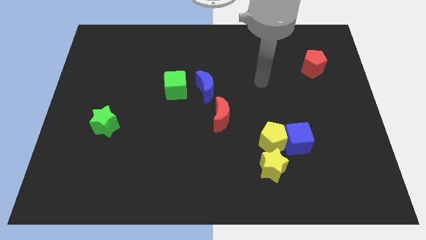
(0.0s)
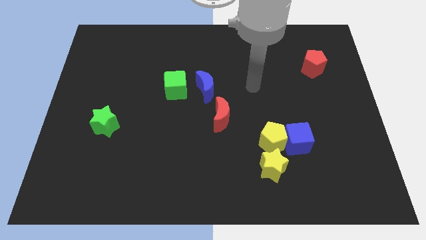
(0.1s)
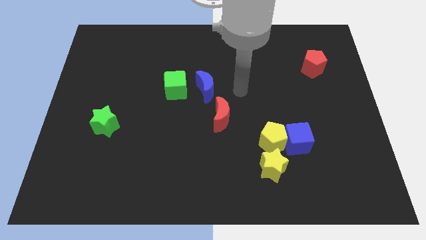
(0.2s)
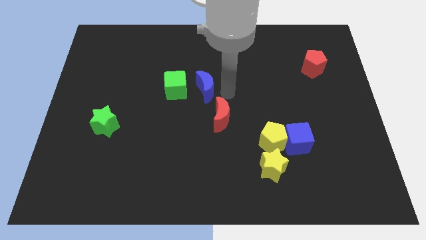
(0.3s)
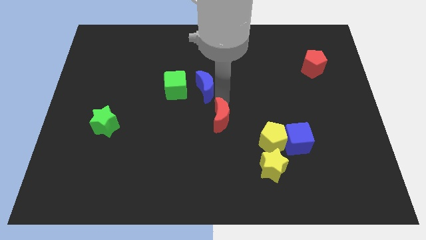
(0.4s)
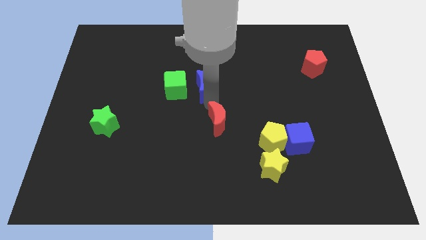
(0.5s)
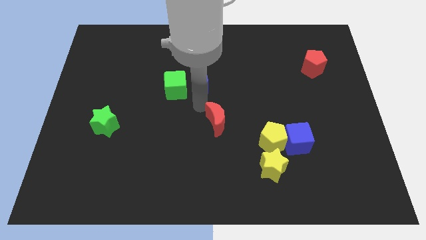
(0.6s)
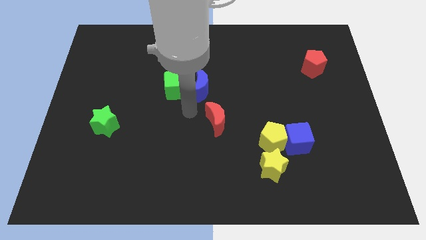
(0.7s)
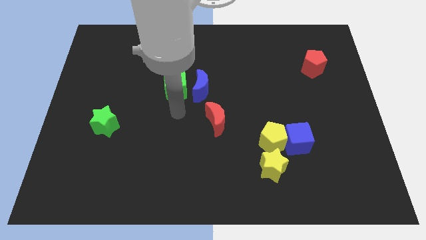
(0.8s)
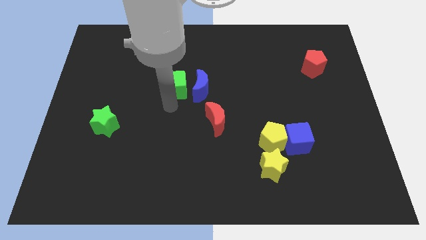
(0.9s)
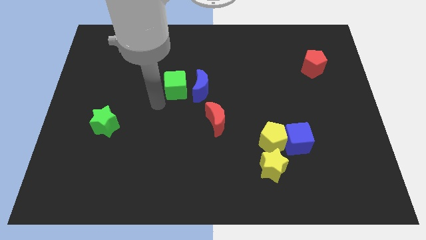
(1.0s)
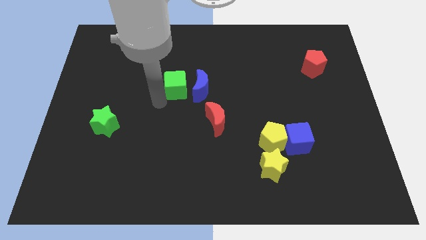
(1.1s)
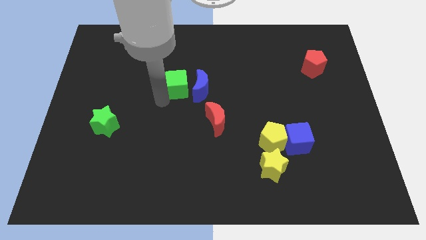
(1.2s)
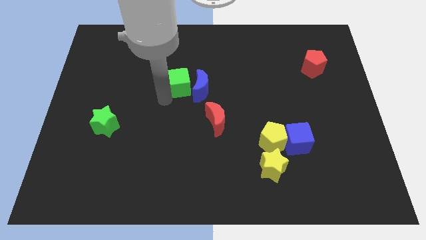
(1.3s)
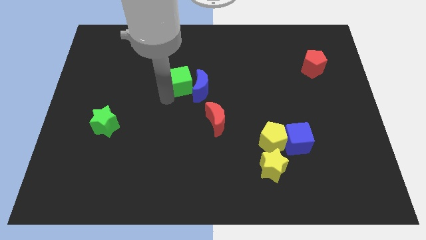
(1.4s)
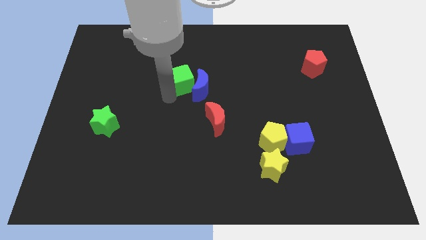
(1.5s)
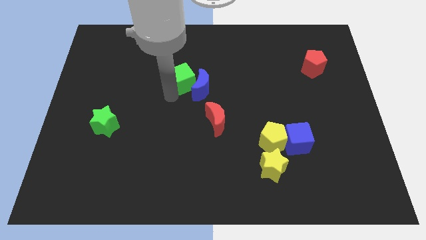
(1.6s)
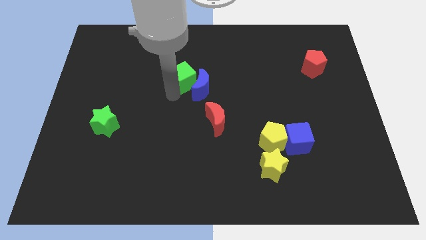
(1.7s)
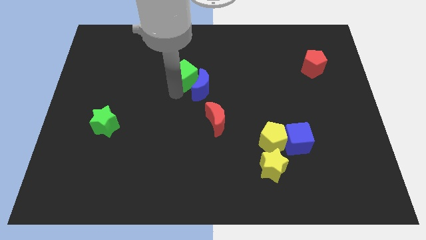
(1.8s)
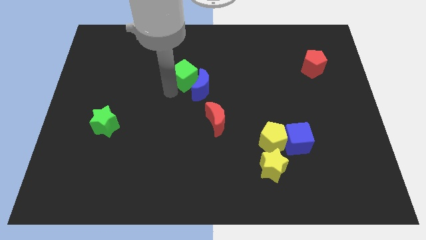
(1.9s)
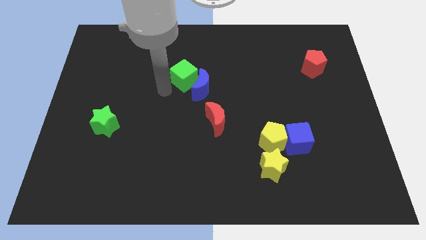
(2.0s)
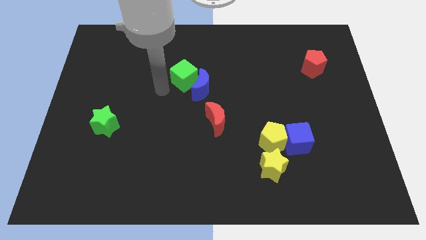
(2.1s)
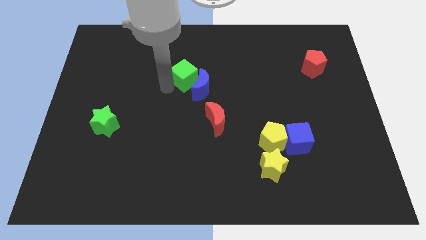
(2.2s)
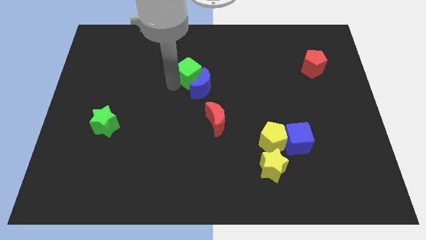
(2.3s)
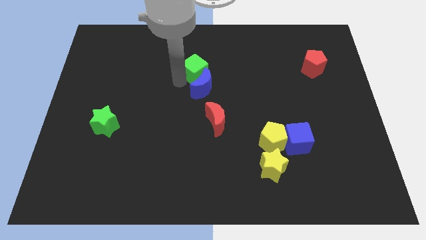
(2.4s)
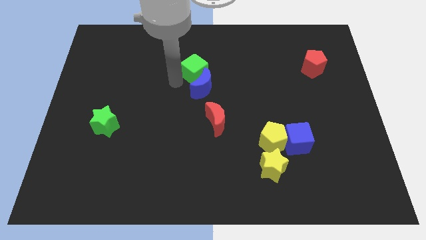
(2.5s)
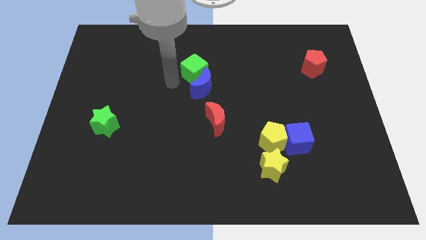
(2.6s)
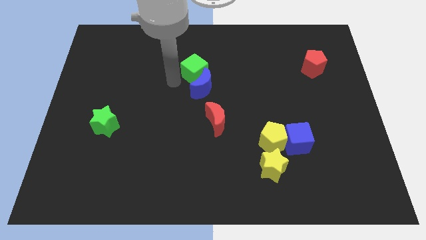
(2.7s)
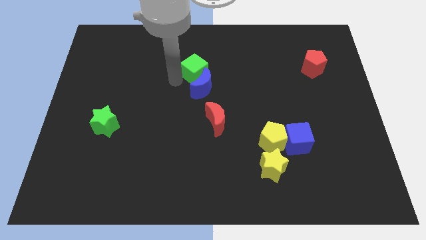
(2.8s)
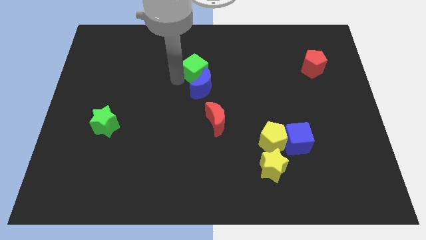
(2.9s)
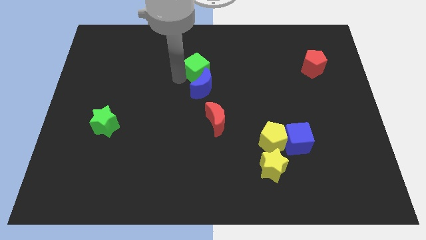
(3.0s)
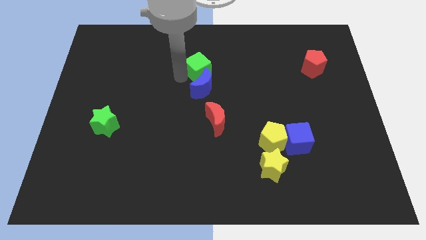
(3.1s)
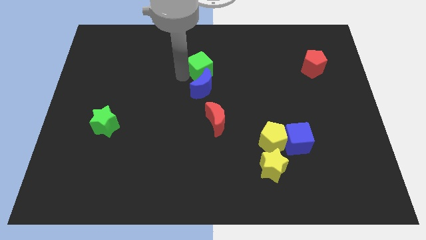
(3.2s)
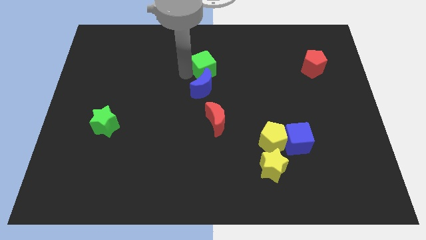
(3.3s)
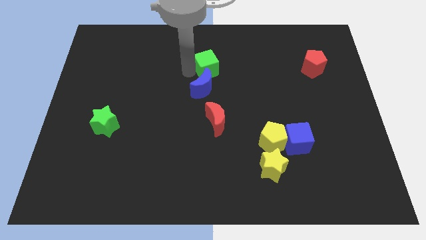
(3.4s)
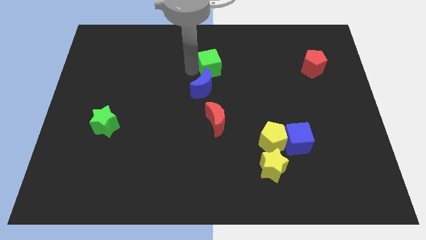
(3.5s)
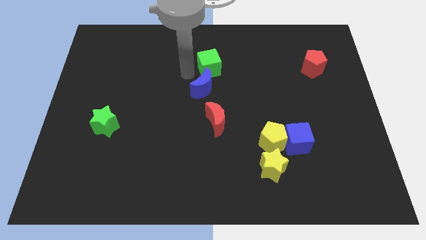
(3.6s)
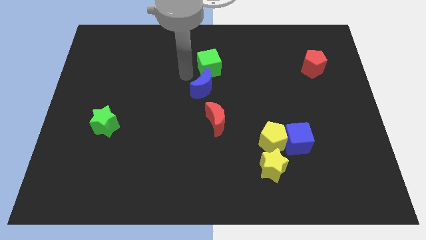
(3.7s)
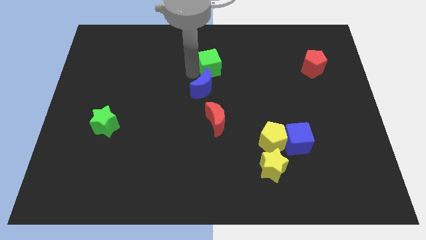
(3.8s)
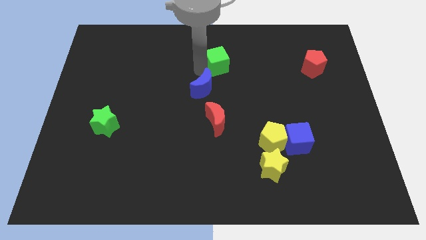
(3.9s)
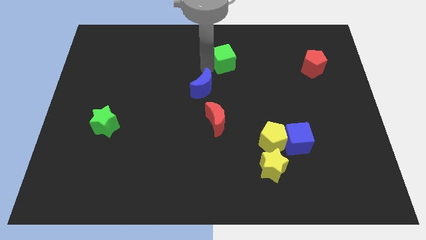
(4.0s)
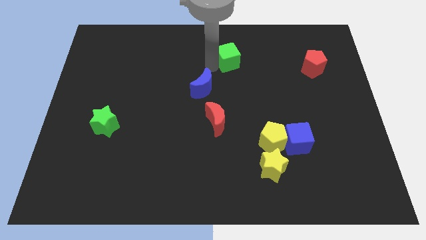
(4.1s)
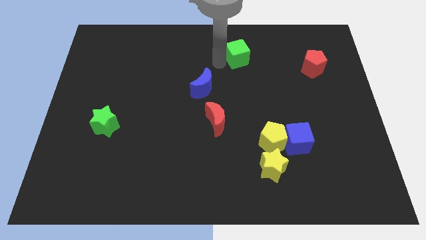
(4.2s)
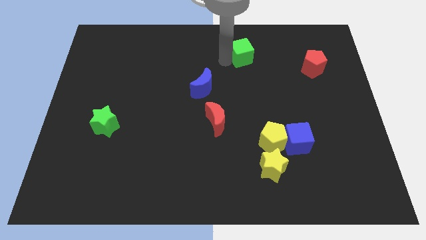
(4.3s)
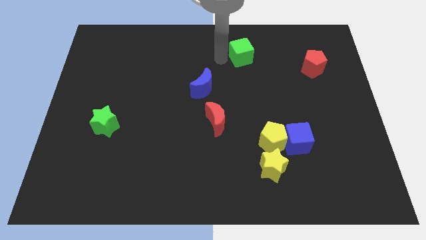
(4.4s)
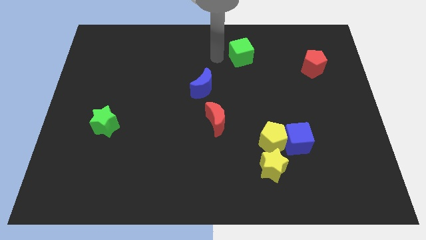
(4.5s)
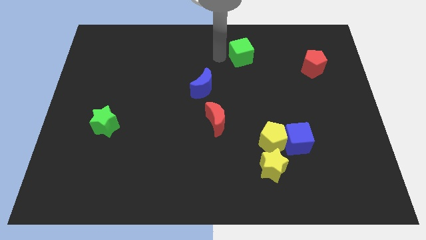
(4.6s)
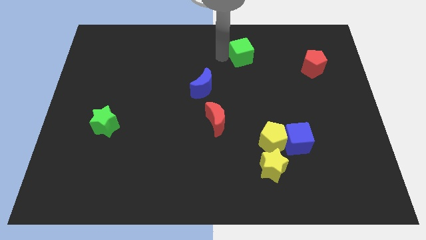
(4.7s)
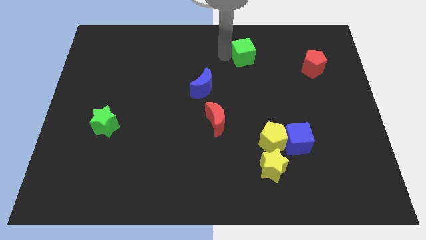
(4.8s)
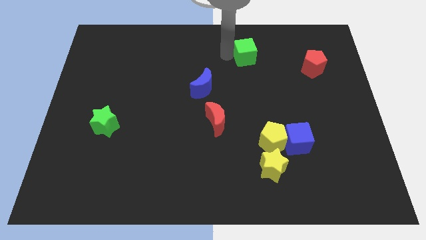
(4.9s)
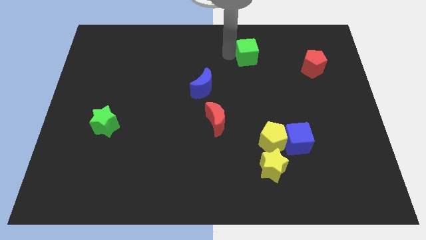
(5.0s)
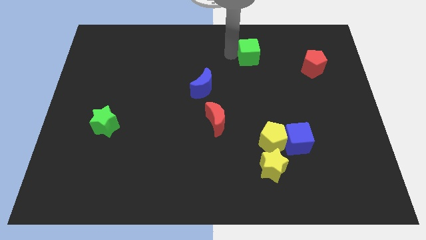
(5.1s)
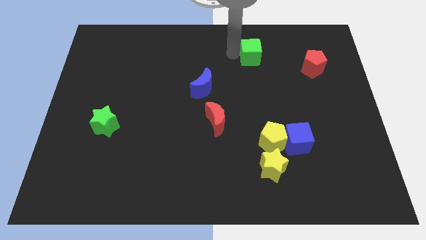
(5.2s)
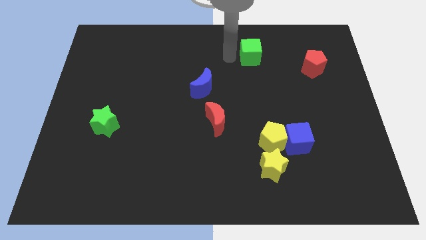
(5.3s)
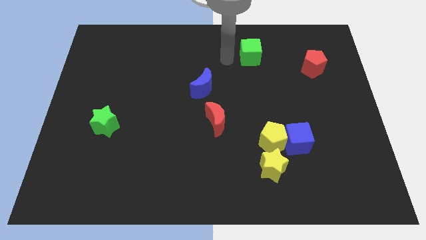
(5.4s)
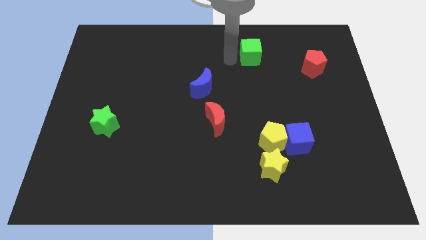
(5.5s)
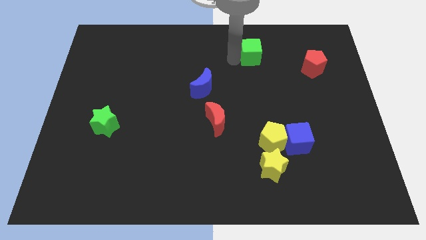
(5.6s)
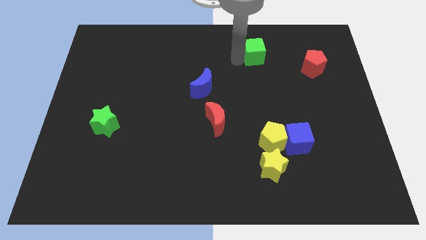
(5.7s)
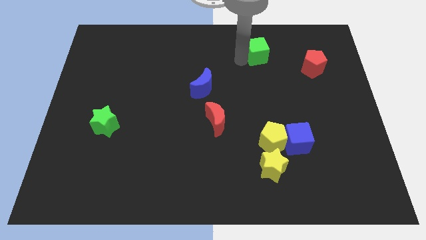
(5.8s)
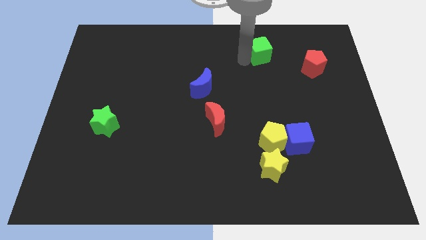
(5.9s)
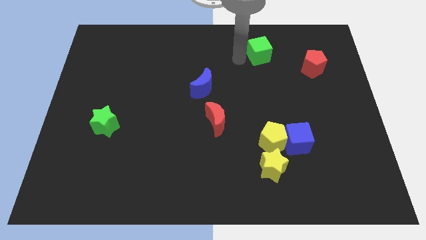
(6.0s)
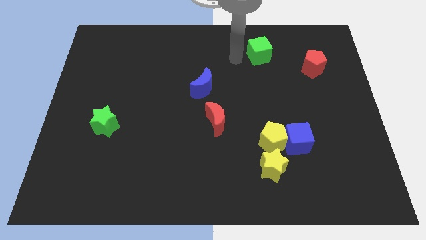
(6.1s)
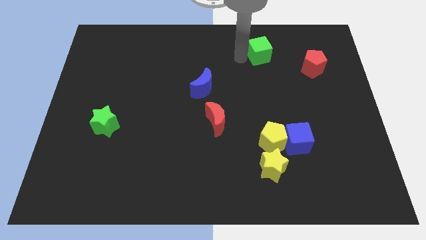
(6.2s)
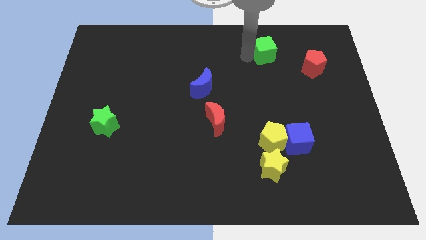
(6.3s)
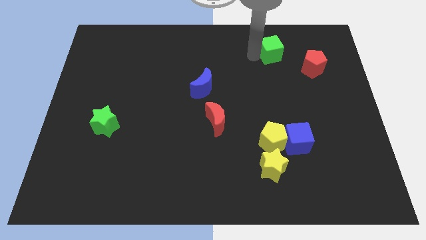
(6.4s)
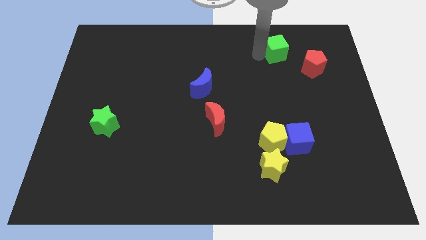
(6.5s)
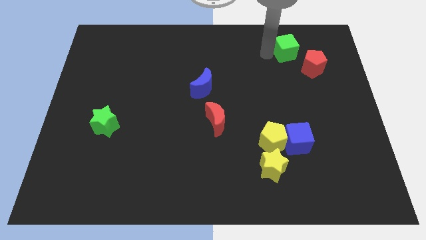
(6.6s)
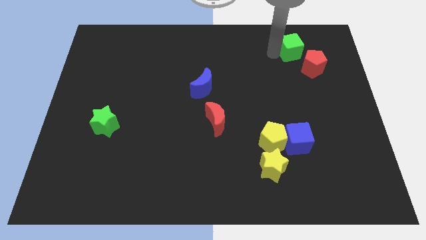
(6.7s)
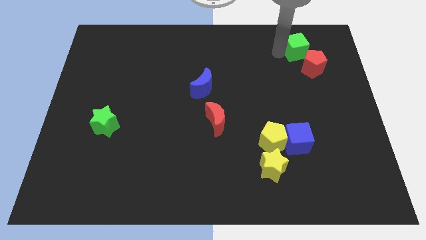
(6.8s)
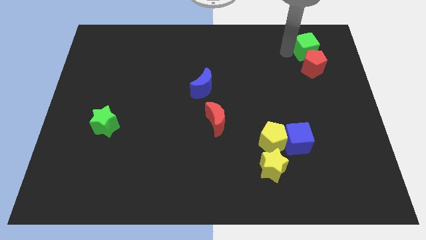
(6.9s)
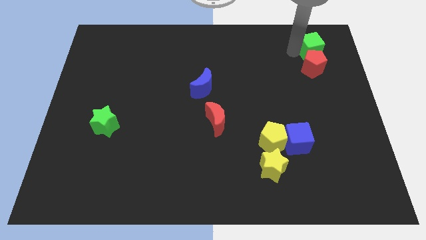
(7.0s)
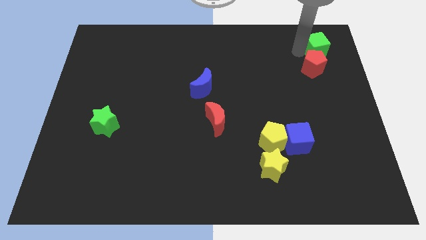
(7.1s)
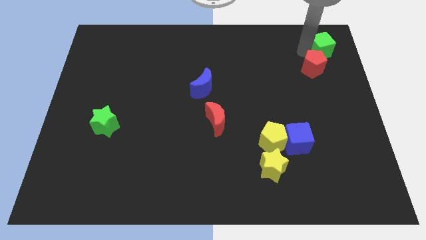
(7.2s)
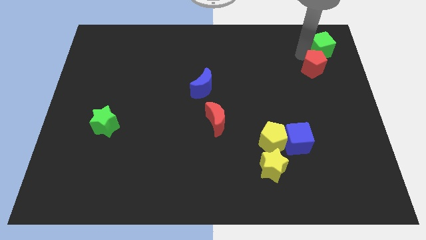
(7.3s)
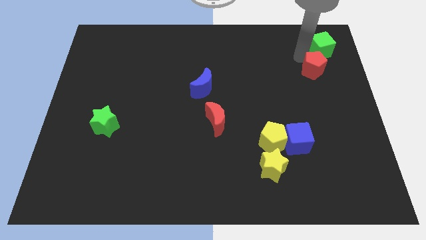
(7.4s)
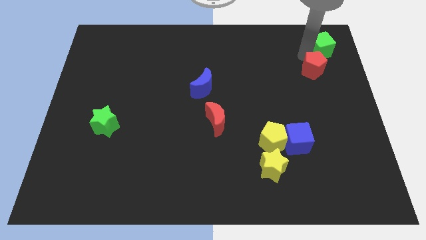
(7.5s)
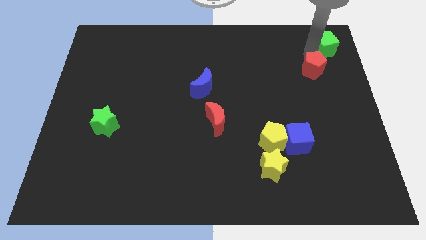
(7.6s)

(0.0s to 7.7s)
slide the green cube to the top right corner
